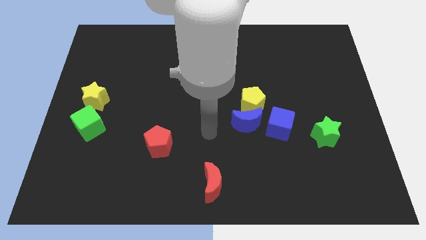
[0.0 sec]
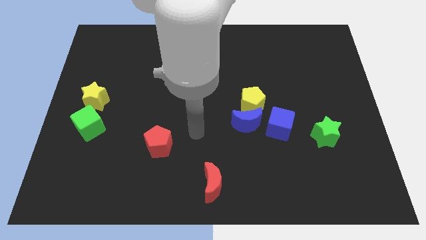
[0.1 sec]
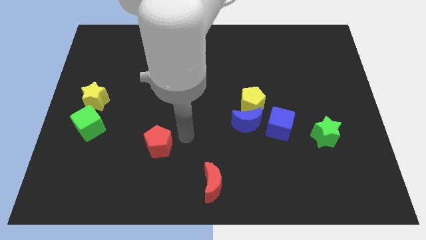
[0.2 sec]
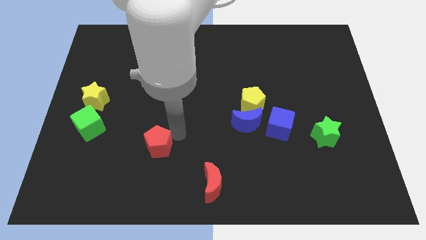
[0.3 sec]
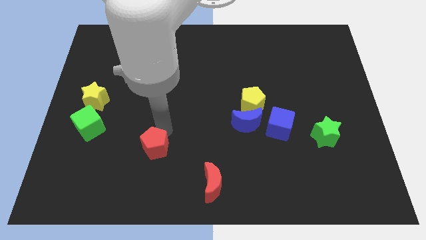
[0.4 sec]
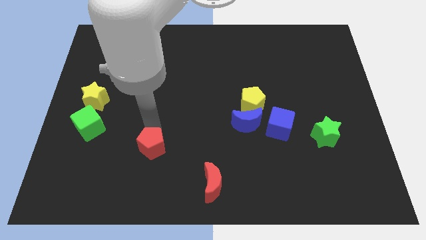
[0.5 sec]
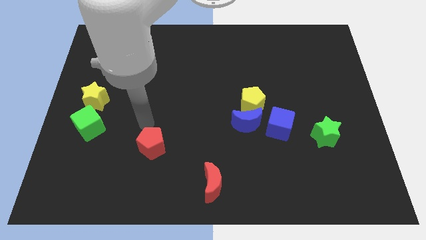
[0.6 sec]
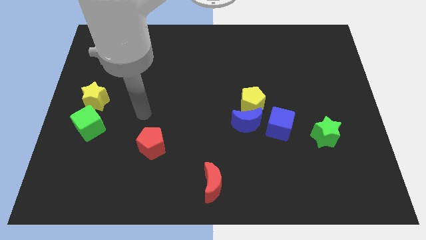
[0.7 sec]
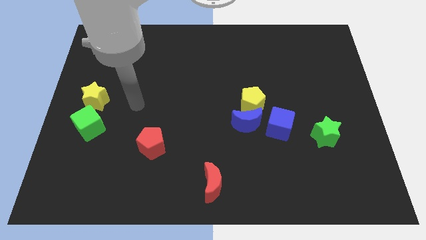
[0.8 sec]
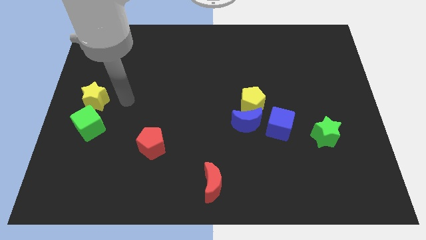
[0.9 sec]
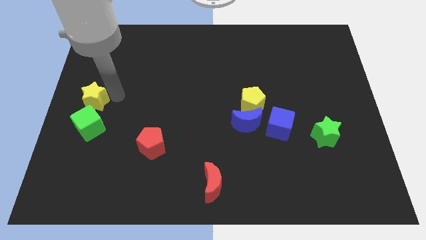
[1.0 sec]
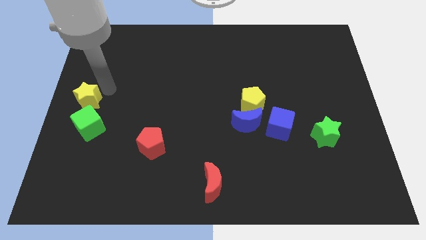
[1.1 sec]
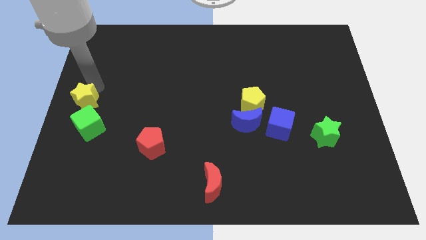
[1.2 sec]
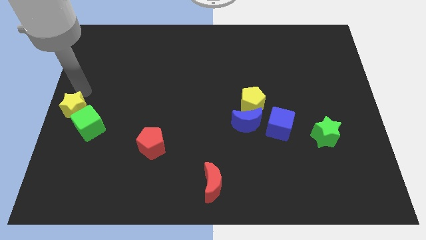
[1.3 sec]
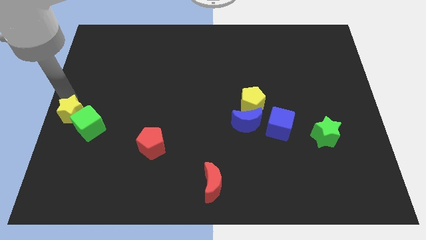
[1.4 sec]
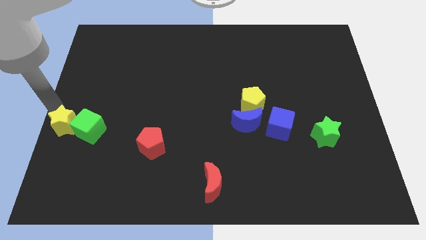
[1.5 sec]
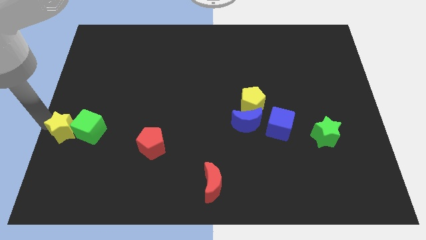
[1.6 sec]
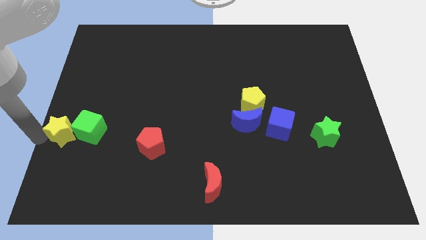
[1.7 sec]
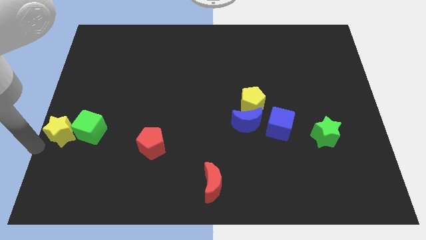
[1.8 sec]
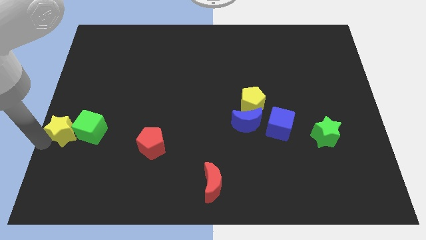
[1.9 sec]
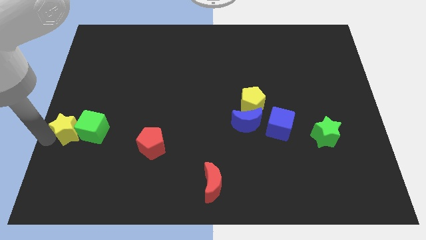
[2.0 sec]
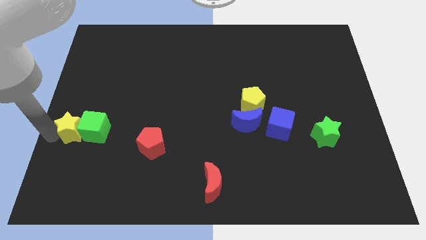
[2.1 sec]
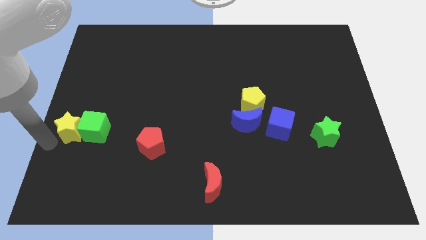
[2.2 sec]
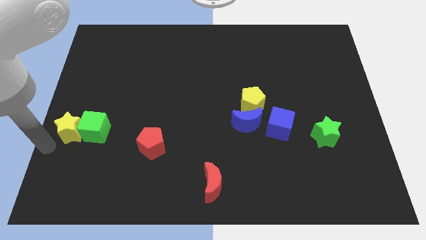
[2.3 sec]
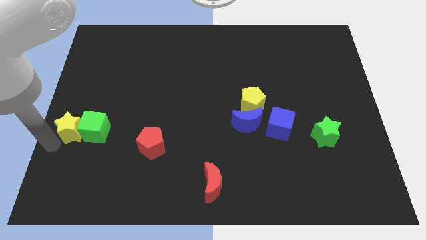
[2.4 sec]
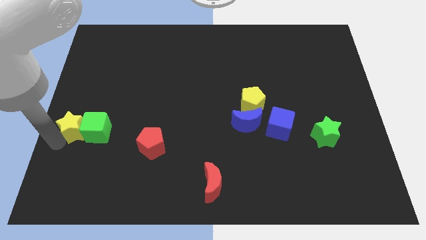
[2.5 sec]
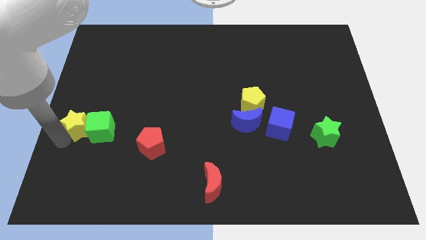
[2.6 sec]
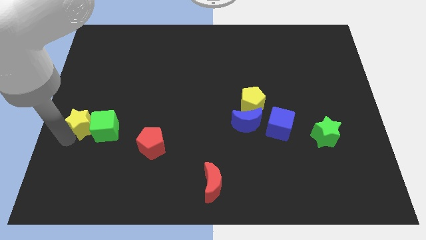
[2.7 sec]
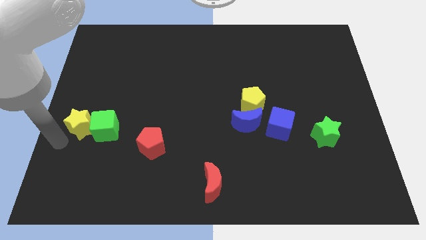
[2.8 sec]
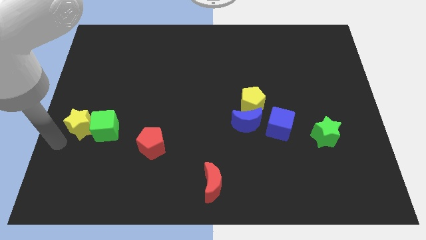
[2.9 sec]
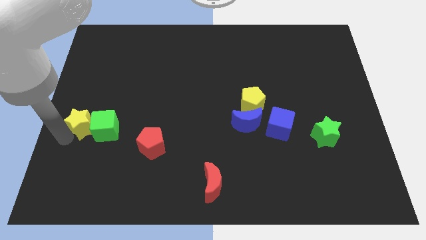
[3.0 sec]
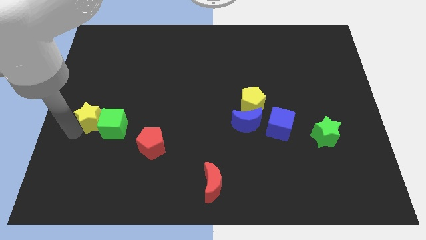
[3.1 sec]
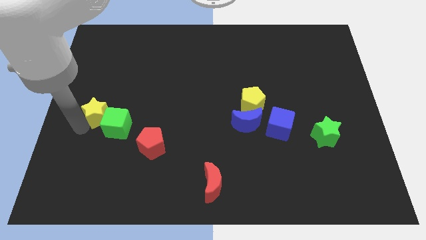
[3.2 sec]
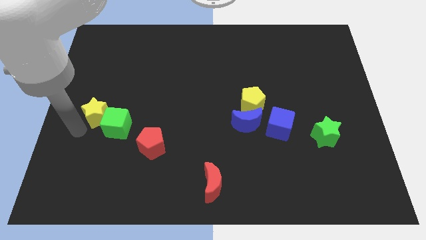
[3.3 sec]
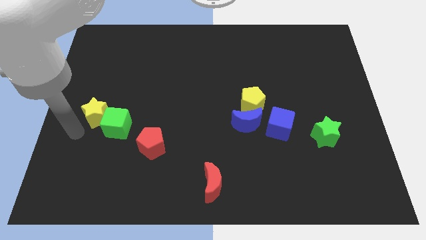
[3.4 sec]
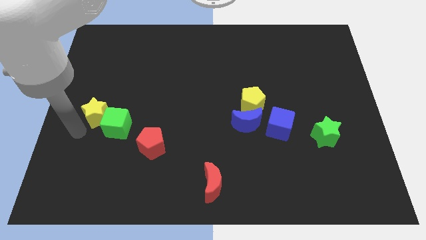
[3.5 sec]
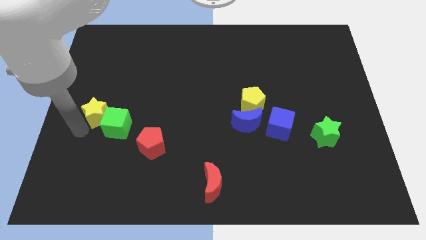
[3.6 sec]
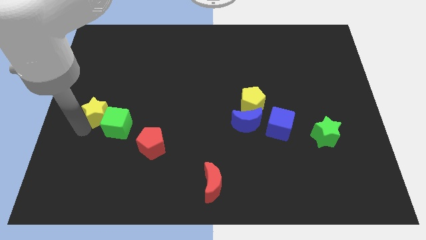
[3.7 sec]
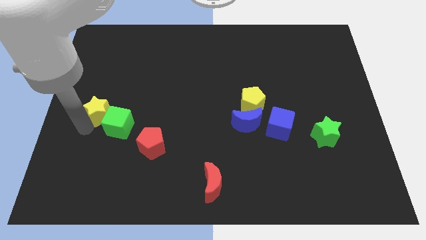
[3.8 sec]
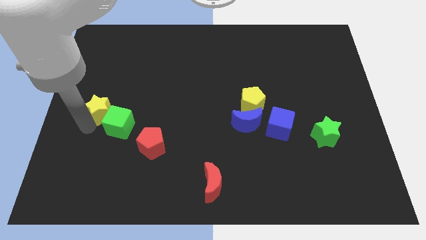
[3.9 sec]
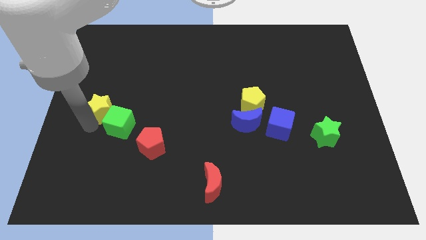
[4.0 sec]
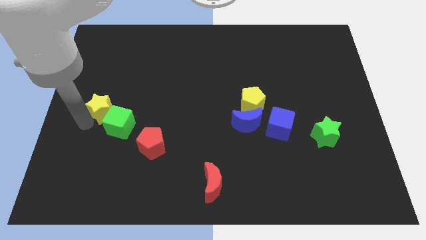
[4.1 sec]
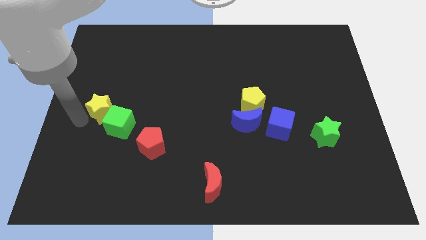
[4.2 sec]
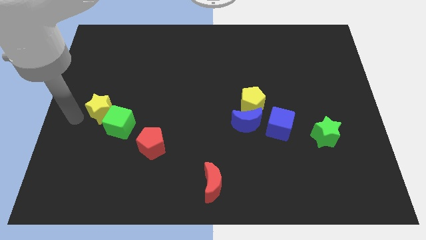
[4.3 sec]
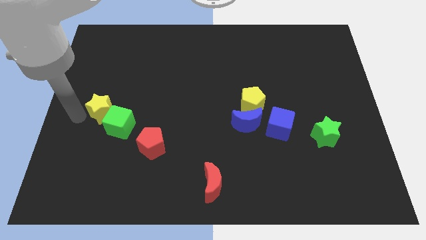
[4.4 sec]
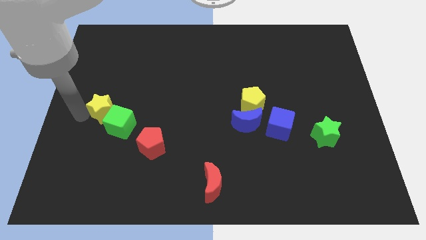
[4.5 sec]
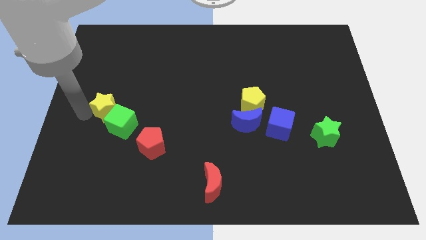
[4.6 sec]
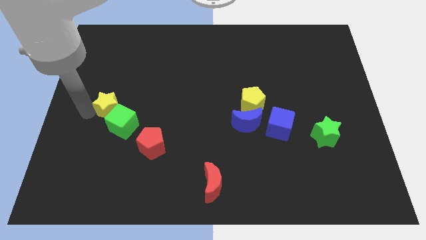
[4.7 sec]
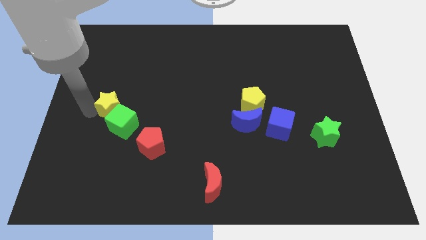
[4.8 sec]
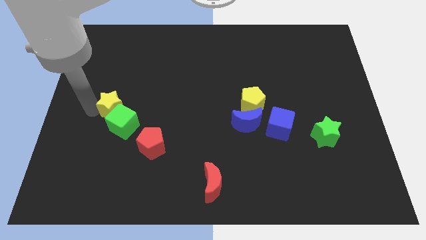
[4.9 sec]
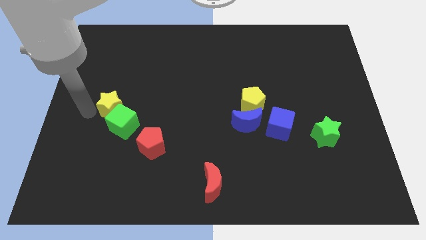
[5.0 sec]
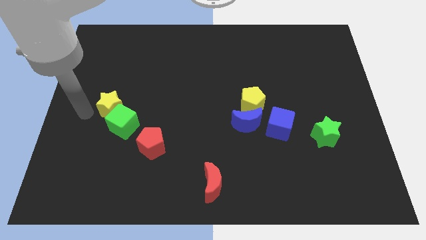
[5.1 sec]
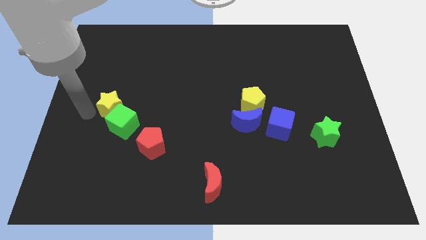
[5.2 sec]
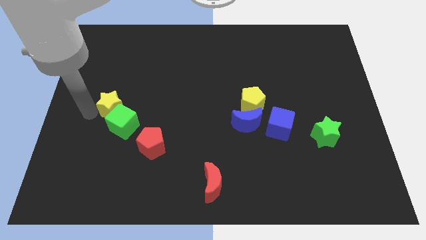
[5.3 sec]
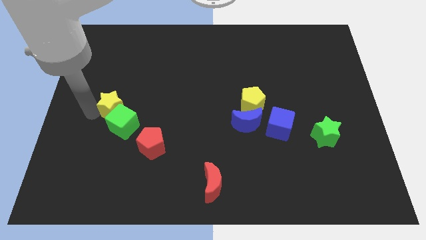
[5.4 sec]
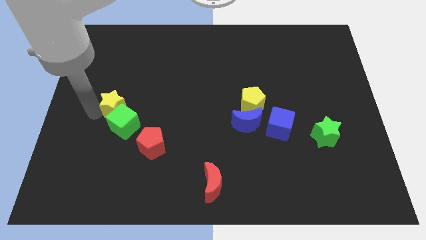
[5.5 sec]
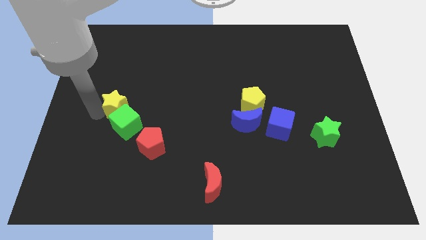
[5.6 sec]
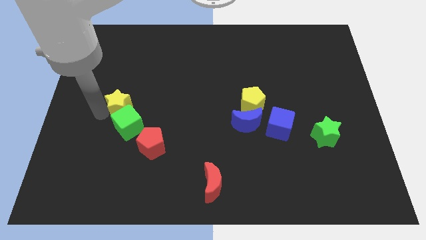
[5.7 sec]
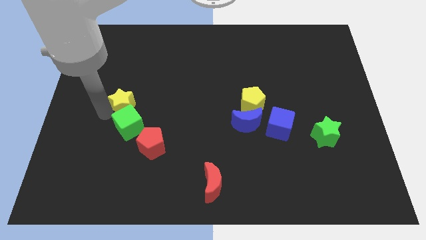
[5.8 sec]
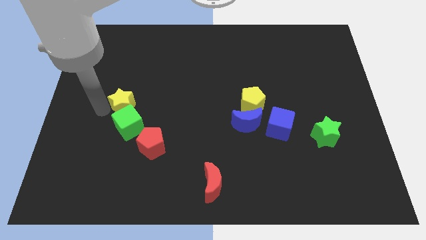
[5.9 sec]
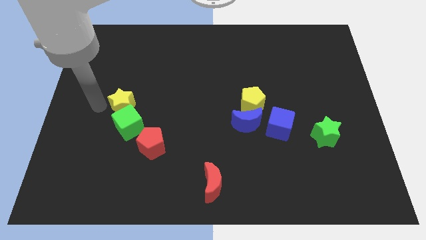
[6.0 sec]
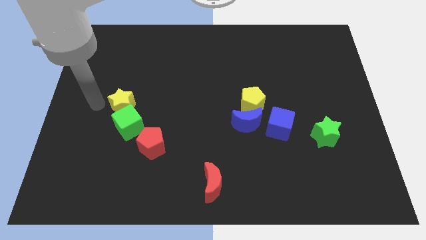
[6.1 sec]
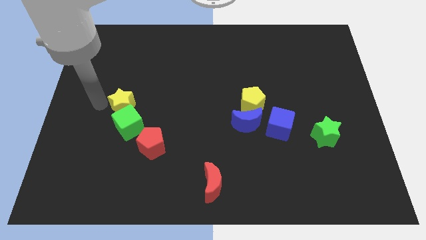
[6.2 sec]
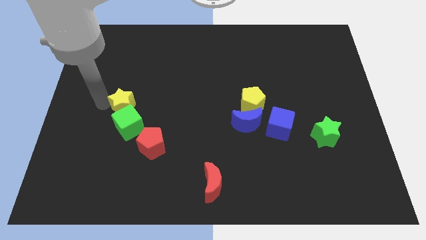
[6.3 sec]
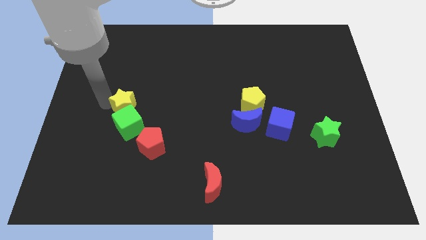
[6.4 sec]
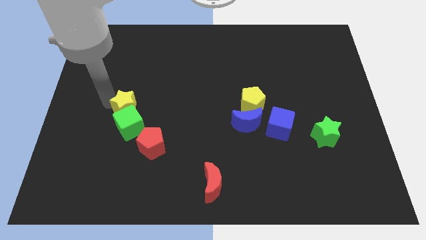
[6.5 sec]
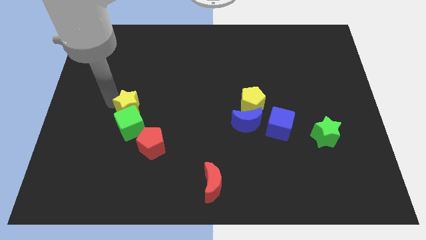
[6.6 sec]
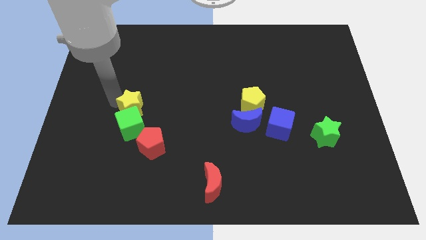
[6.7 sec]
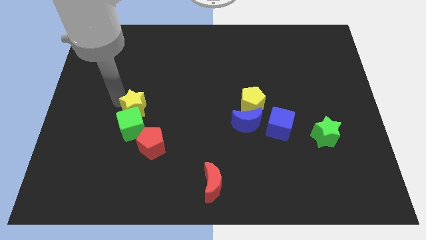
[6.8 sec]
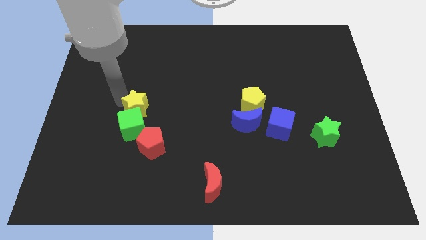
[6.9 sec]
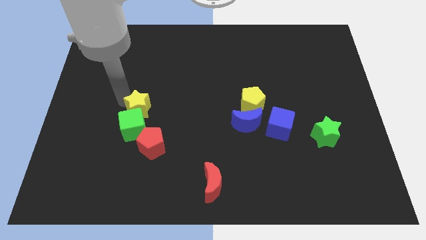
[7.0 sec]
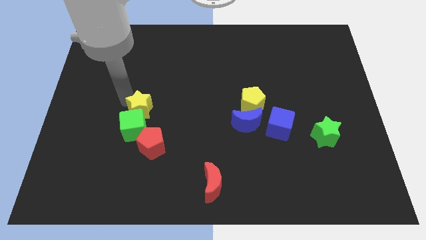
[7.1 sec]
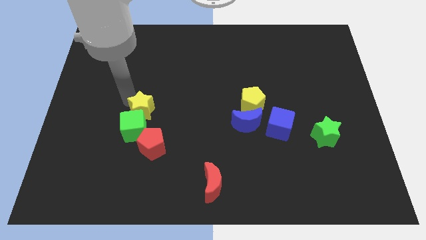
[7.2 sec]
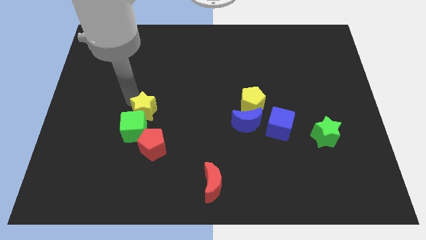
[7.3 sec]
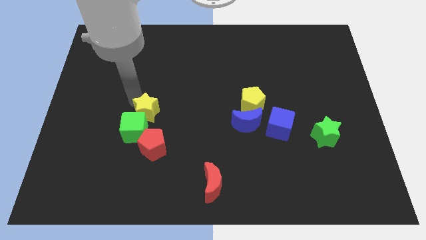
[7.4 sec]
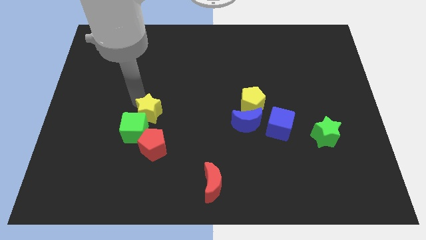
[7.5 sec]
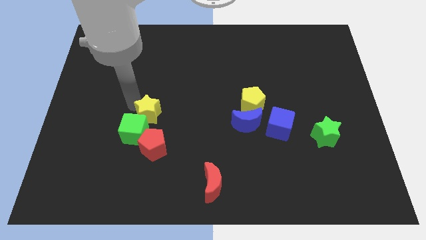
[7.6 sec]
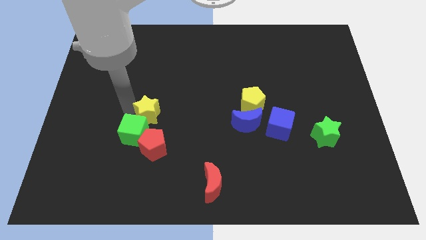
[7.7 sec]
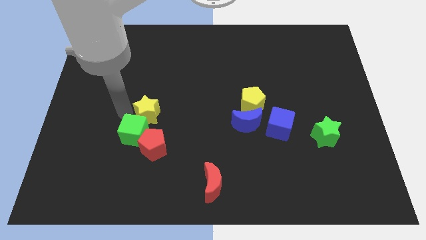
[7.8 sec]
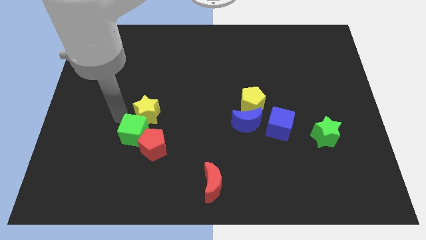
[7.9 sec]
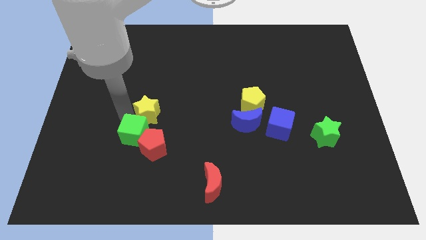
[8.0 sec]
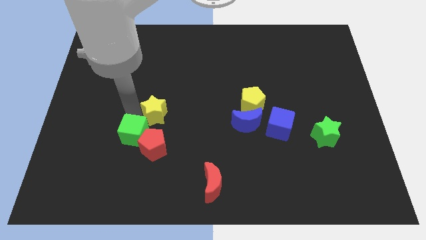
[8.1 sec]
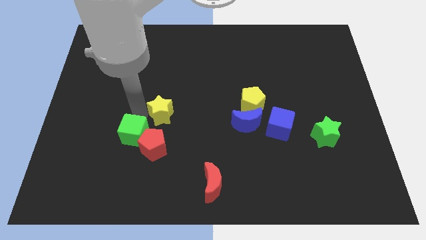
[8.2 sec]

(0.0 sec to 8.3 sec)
put the yellow star to the center
